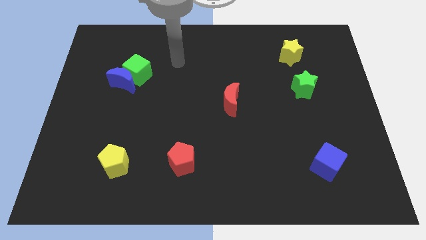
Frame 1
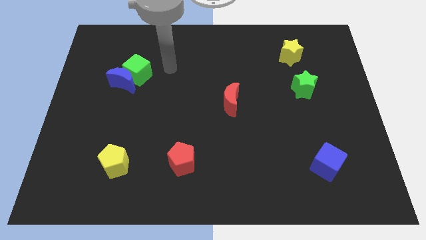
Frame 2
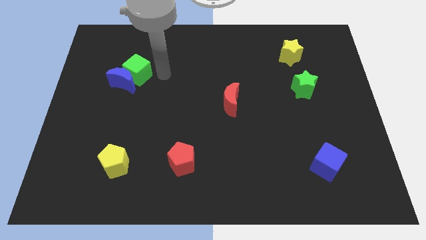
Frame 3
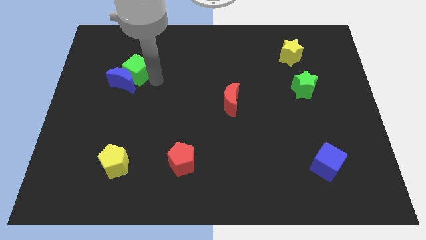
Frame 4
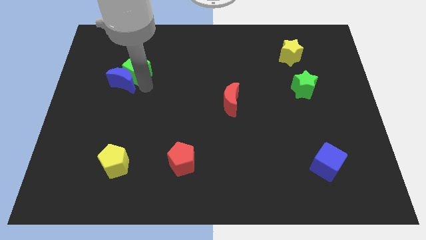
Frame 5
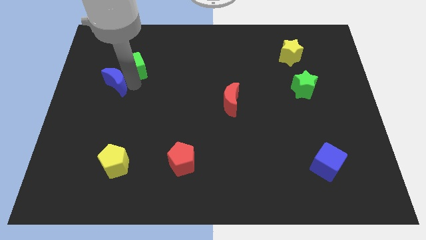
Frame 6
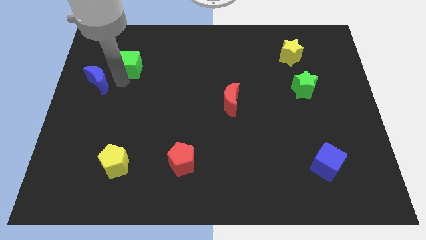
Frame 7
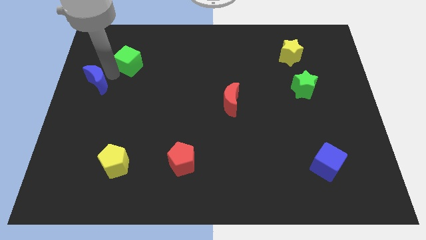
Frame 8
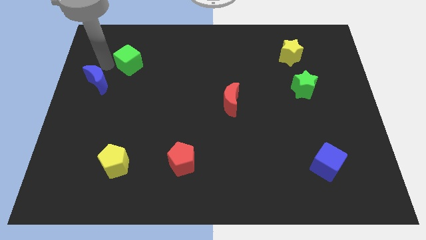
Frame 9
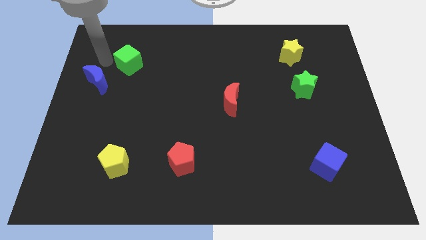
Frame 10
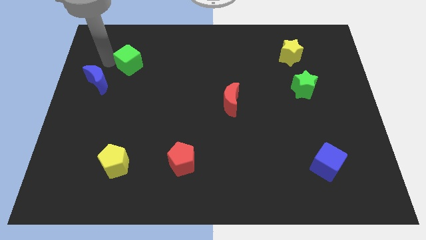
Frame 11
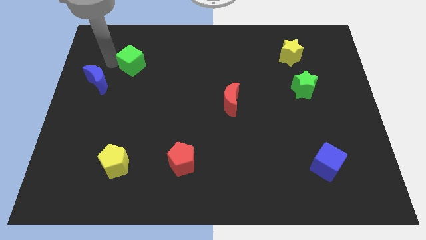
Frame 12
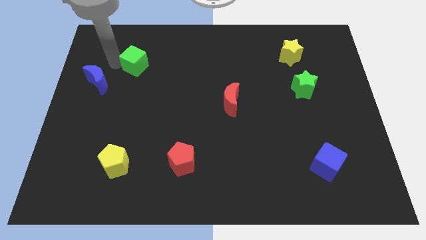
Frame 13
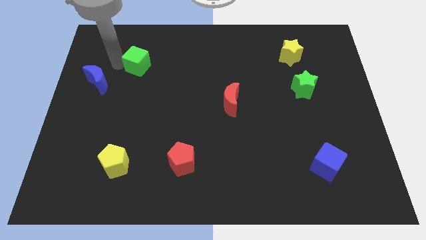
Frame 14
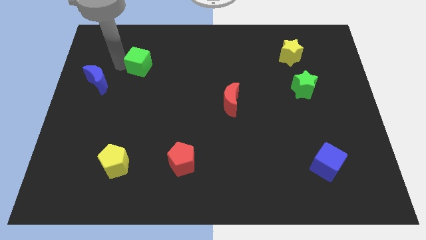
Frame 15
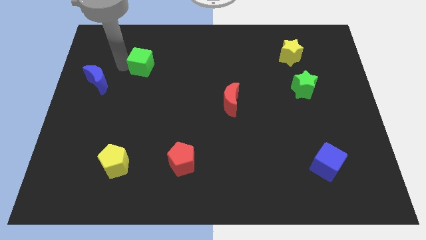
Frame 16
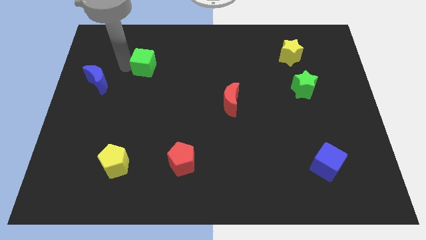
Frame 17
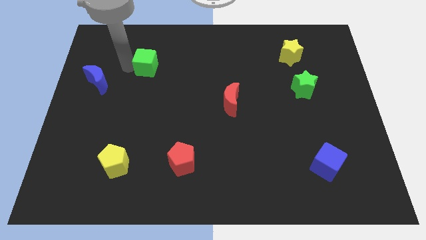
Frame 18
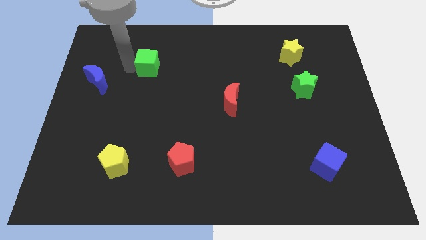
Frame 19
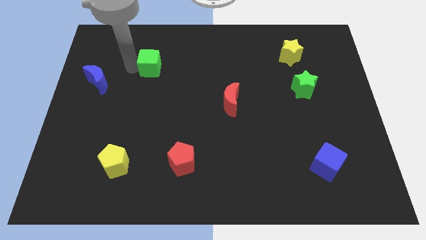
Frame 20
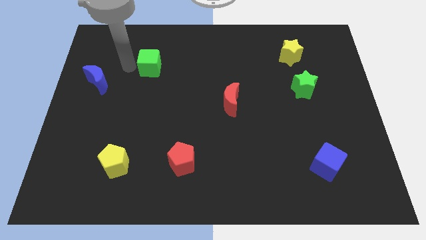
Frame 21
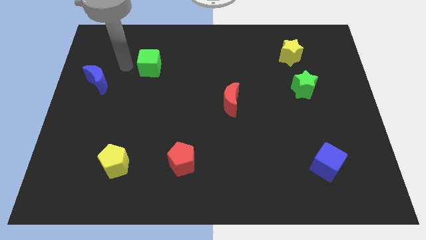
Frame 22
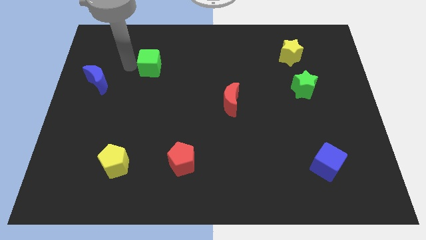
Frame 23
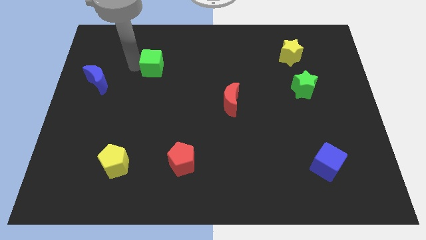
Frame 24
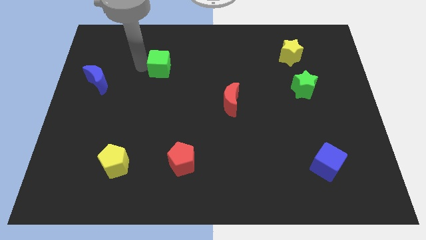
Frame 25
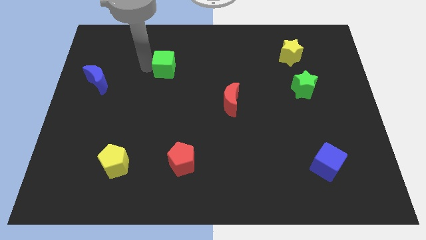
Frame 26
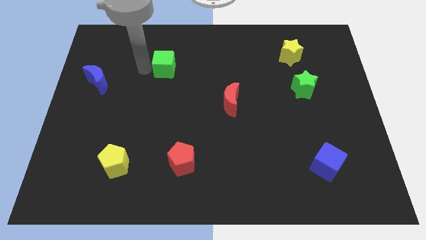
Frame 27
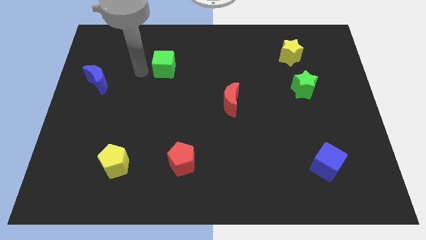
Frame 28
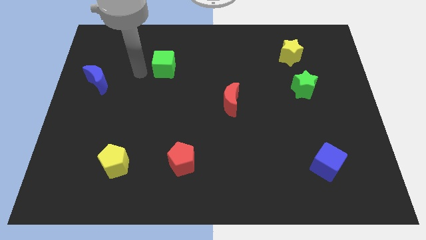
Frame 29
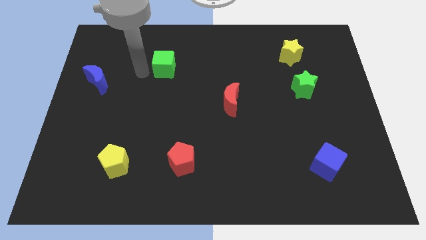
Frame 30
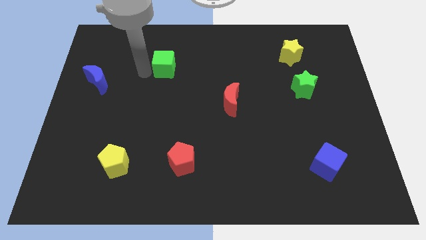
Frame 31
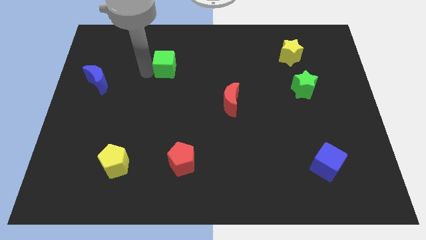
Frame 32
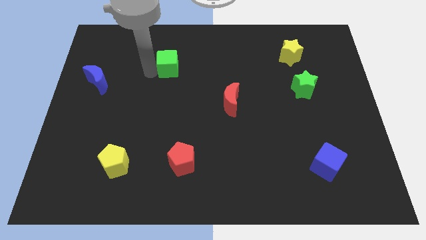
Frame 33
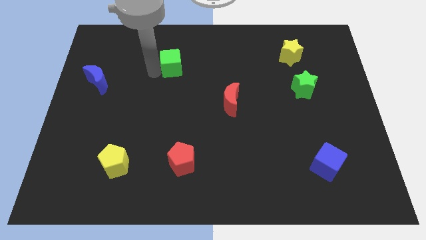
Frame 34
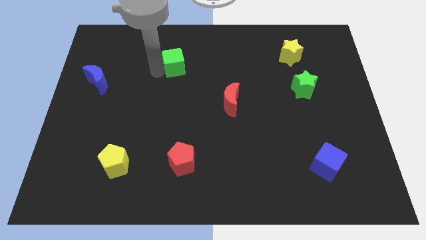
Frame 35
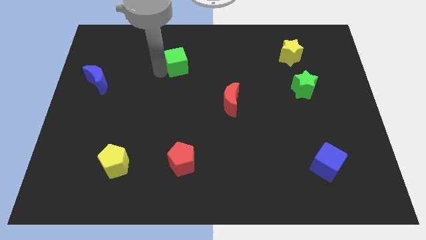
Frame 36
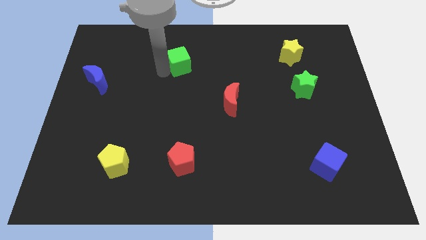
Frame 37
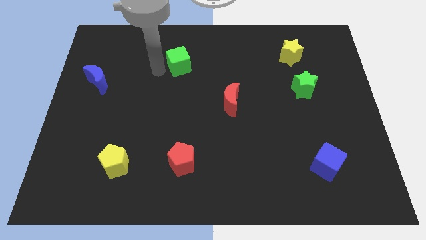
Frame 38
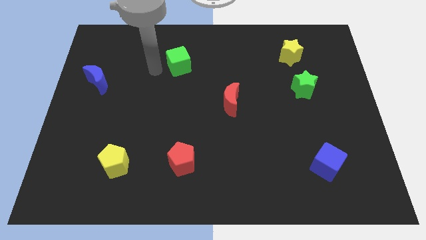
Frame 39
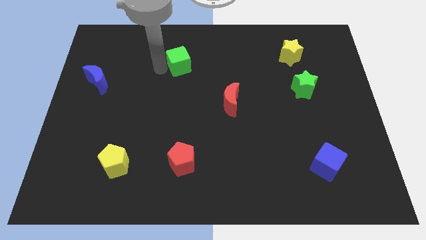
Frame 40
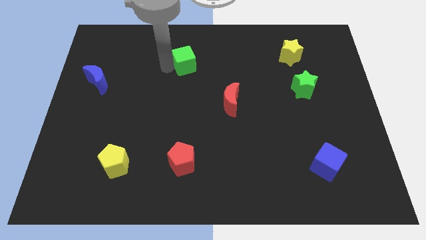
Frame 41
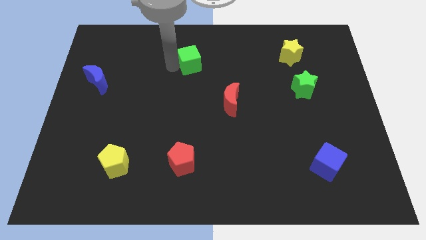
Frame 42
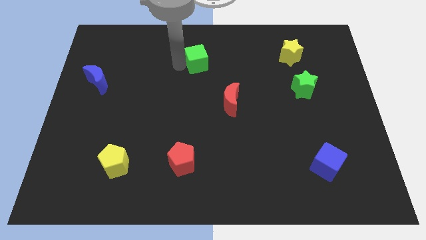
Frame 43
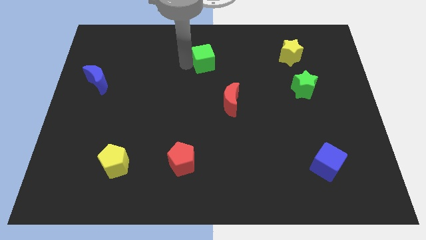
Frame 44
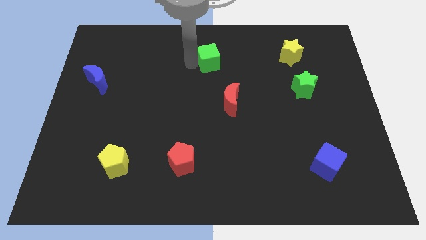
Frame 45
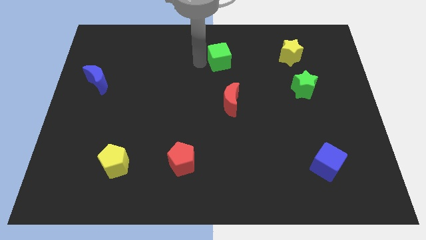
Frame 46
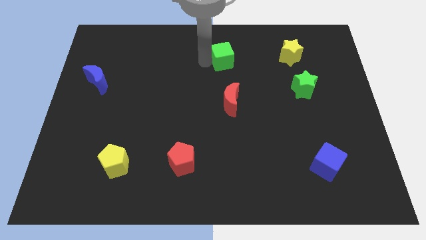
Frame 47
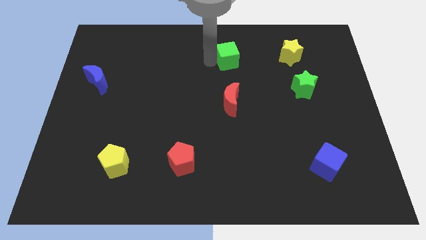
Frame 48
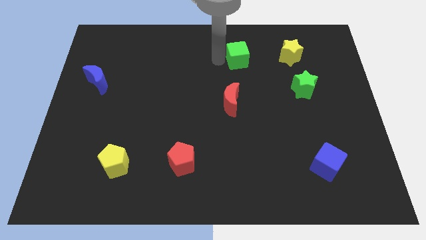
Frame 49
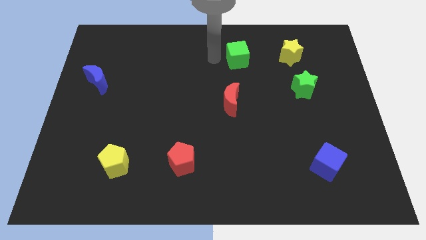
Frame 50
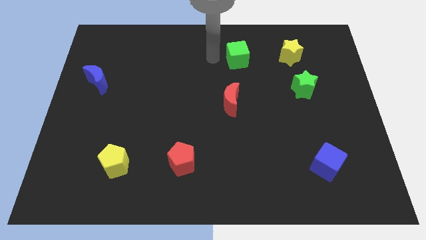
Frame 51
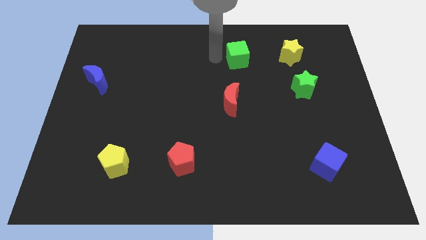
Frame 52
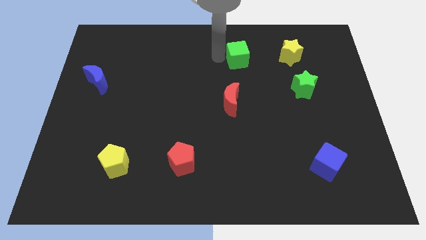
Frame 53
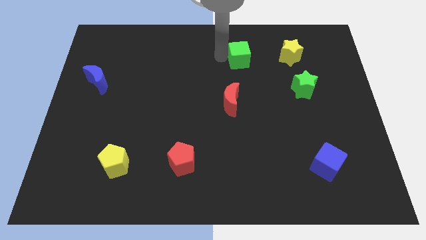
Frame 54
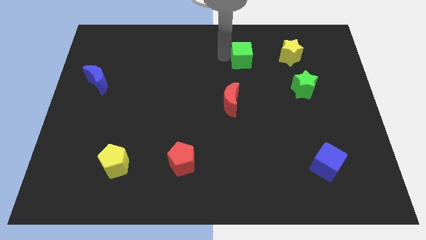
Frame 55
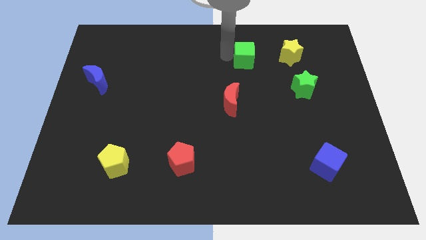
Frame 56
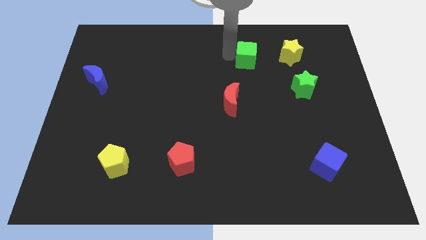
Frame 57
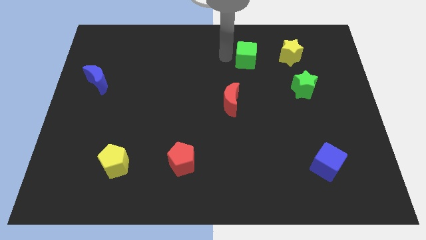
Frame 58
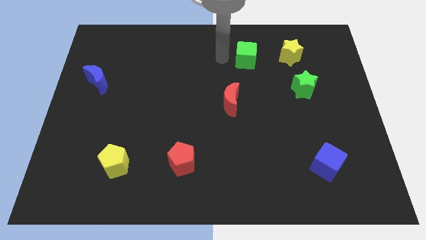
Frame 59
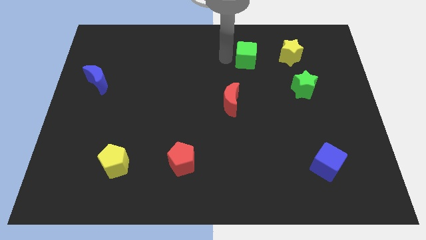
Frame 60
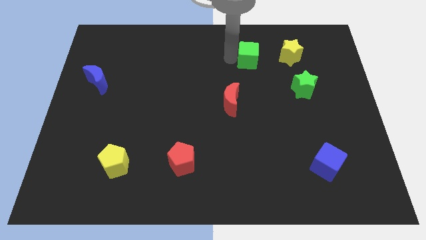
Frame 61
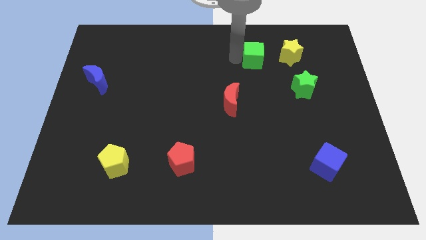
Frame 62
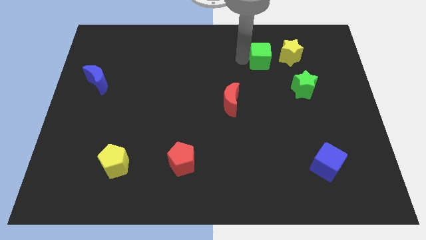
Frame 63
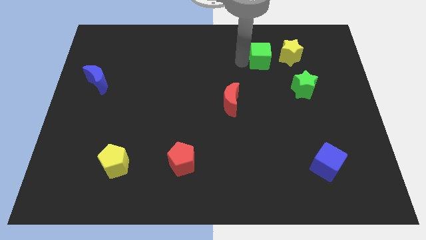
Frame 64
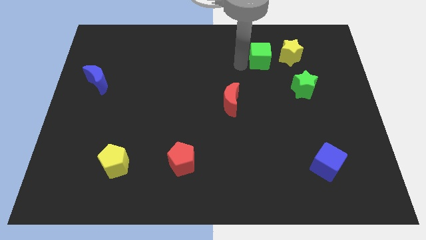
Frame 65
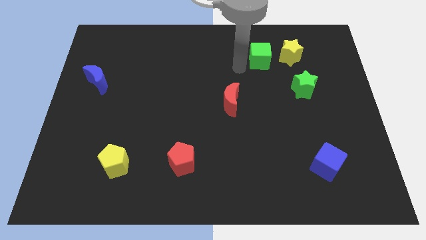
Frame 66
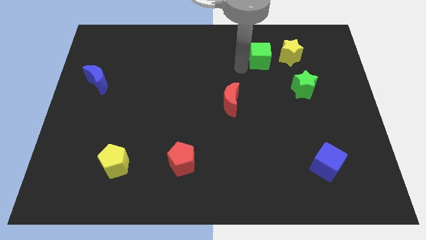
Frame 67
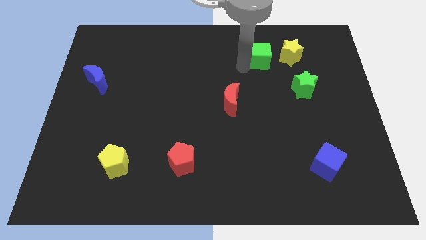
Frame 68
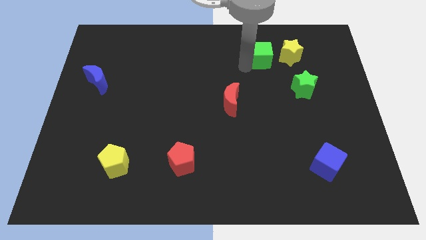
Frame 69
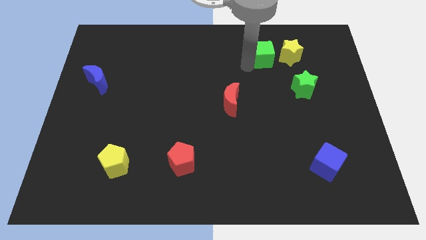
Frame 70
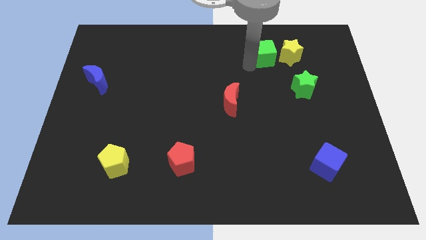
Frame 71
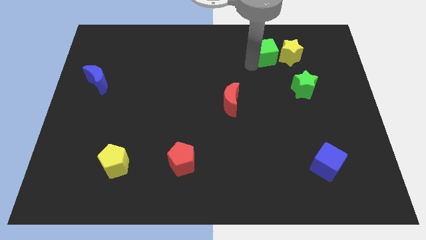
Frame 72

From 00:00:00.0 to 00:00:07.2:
move the green cube next to the yellow star
